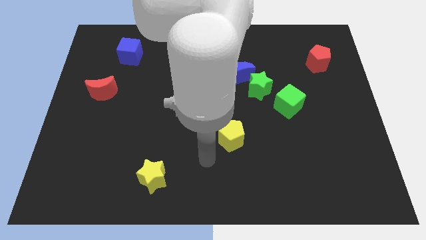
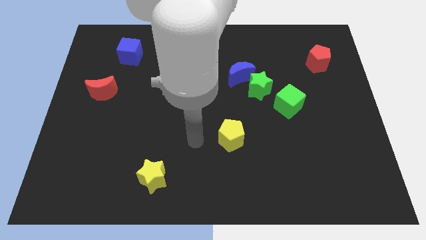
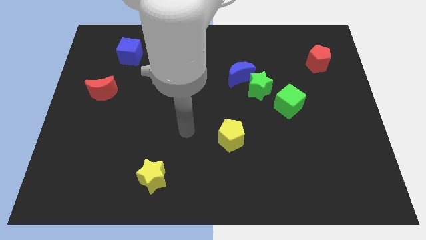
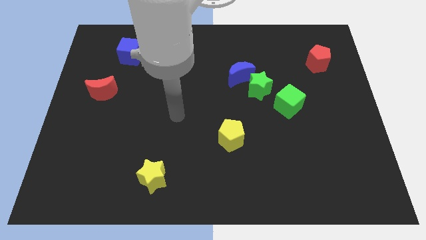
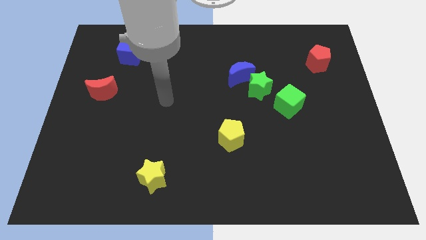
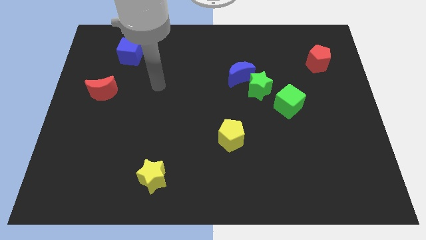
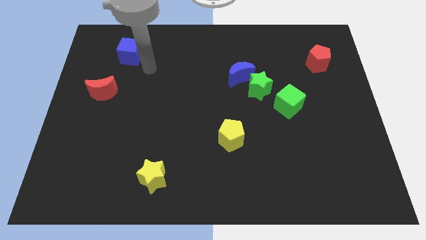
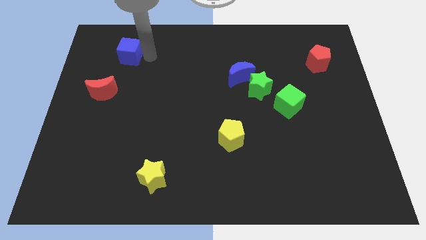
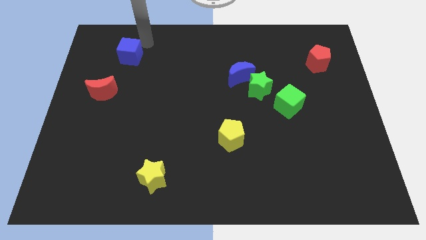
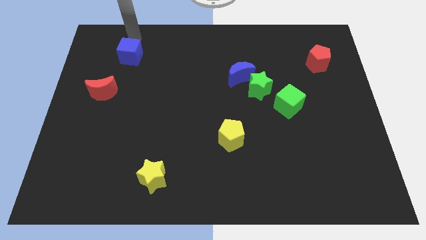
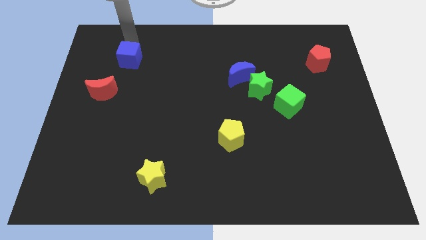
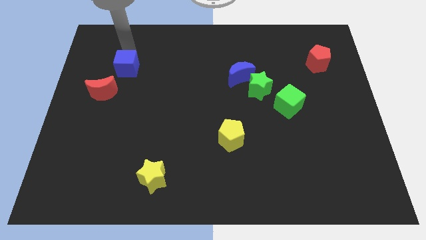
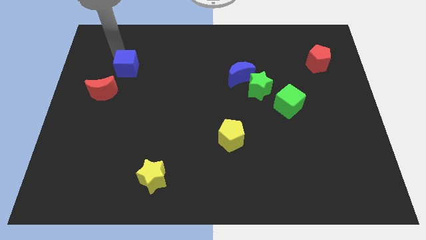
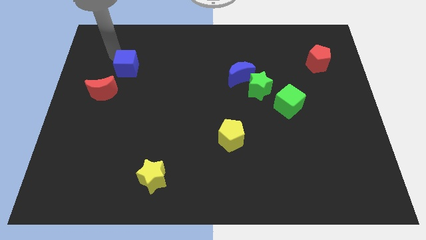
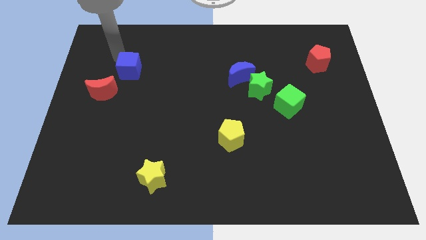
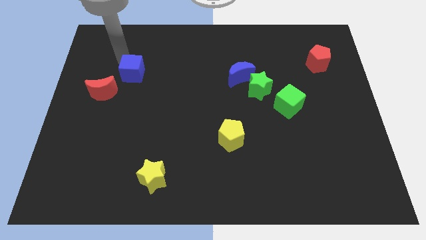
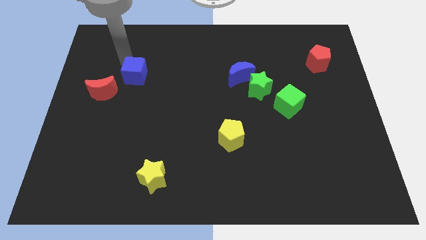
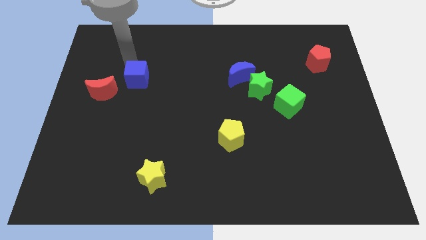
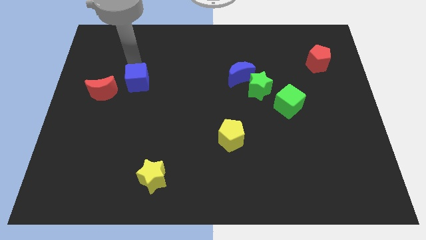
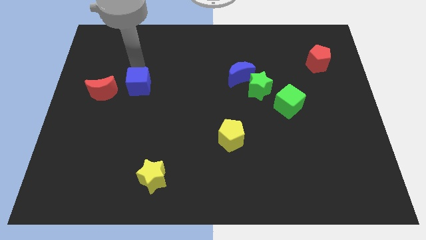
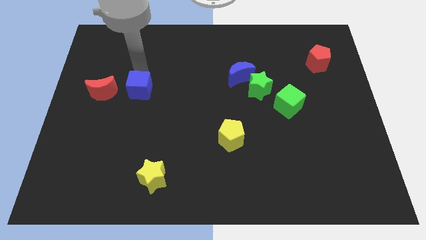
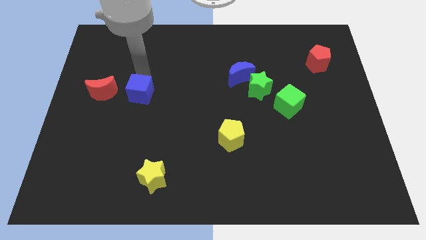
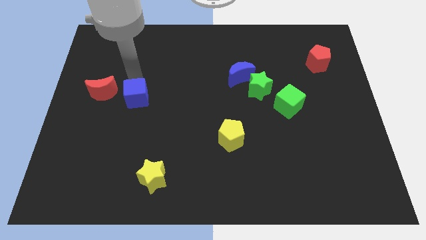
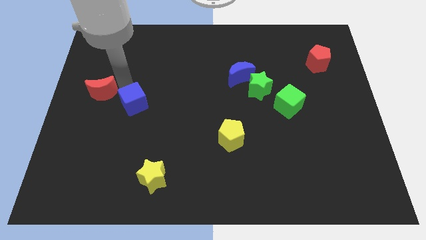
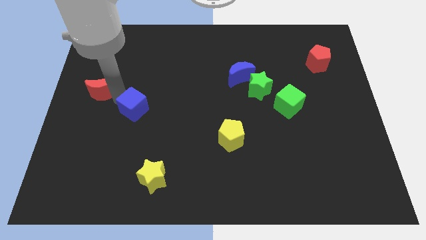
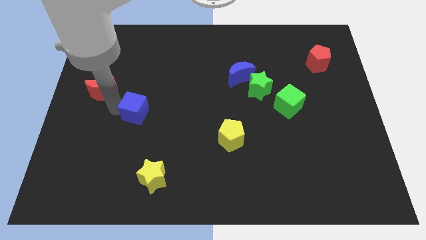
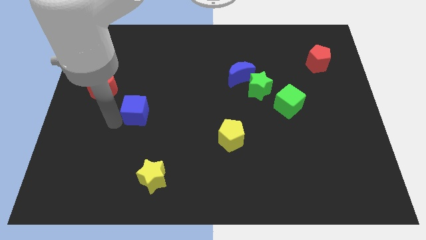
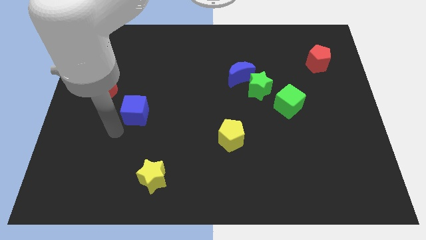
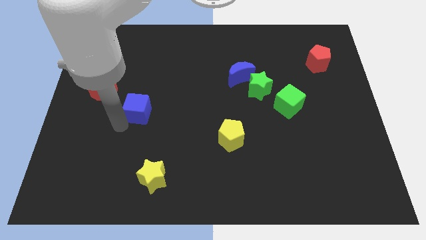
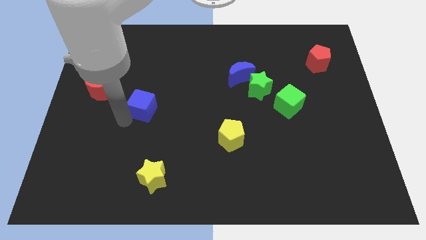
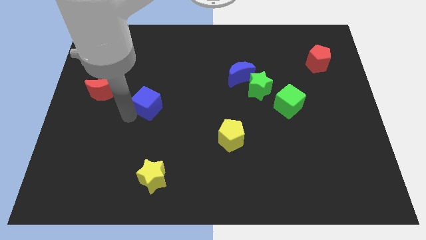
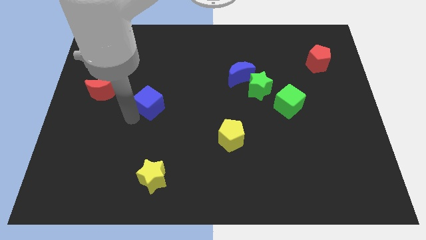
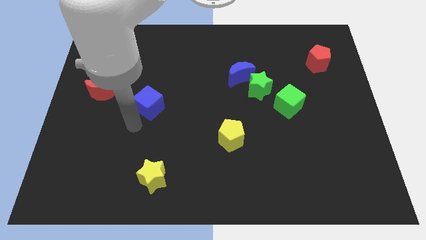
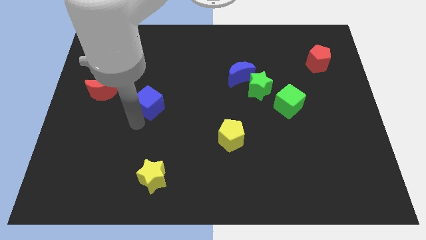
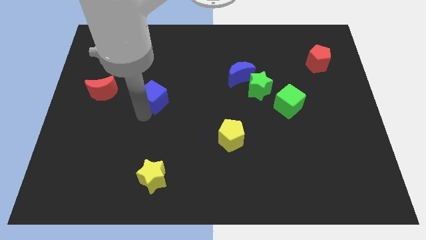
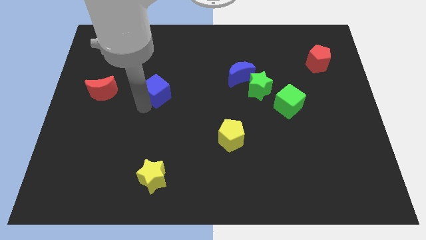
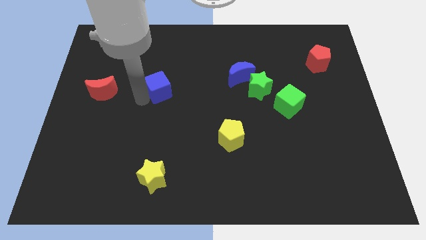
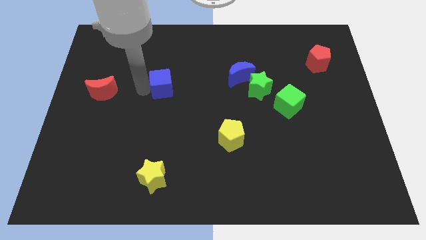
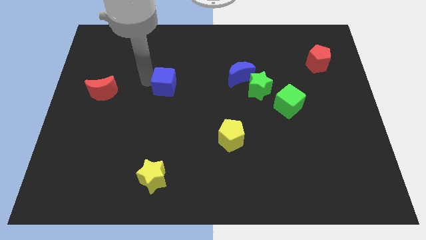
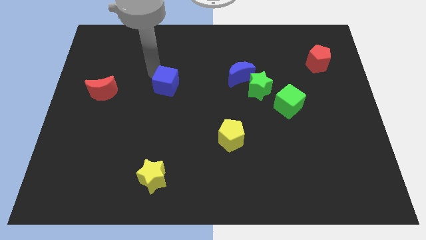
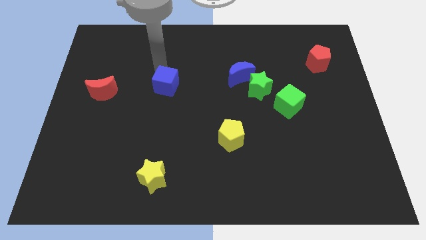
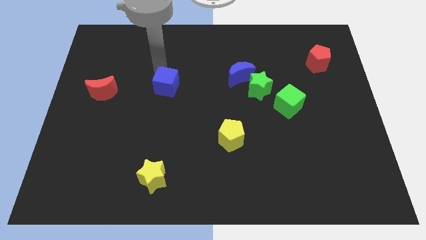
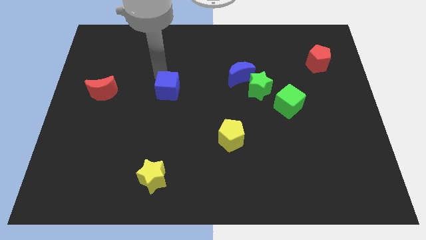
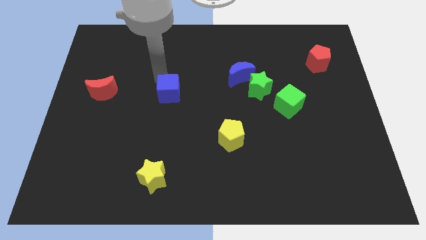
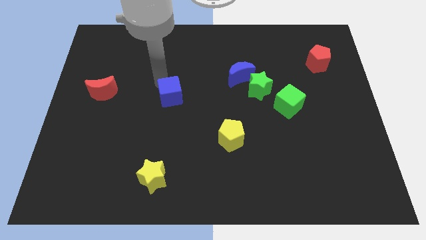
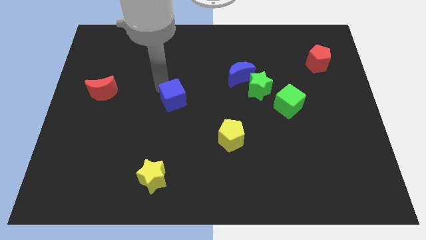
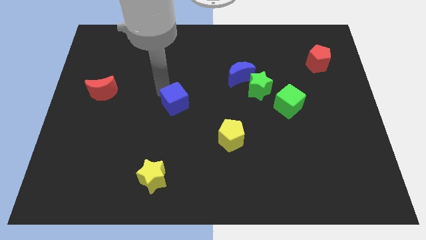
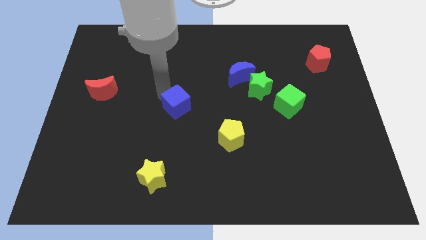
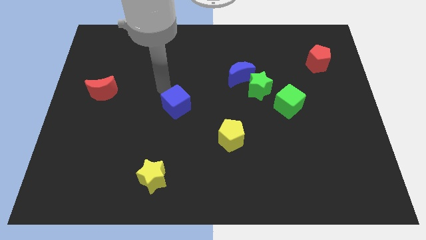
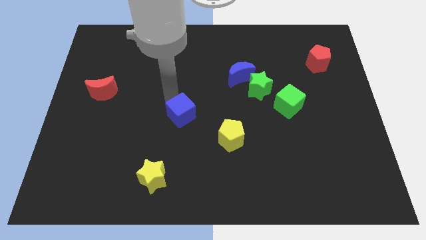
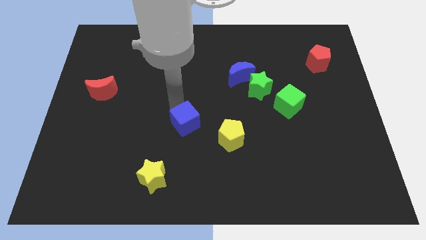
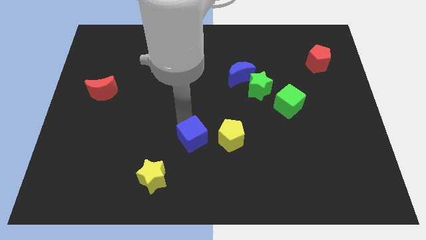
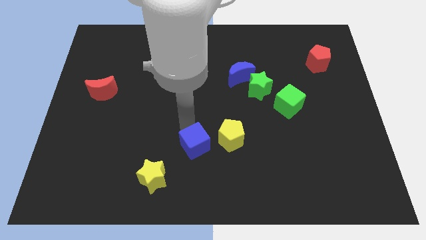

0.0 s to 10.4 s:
slide the blue cube to the bottom left side of the yellow pentagon

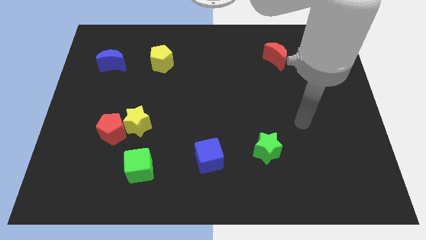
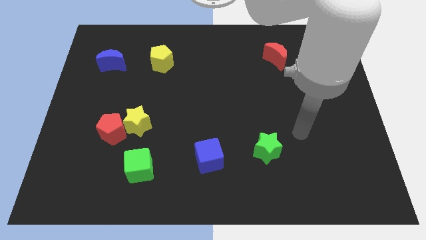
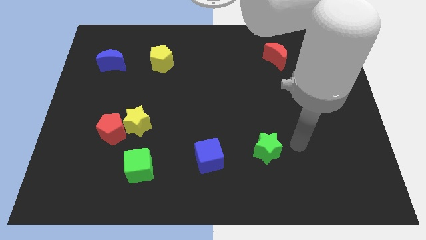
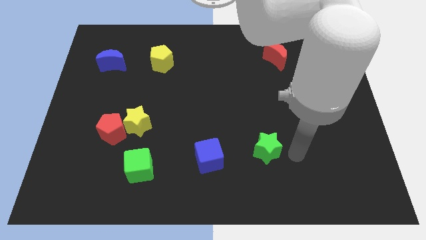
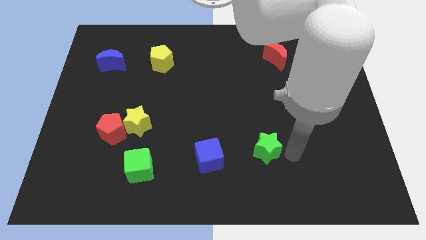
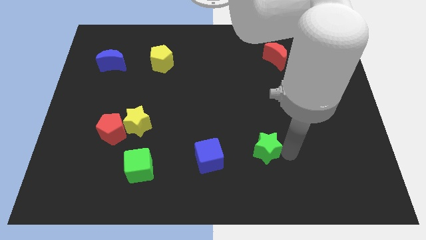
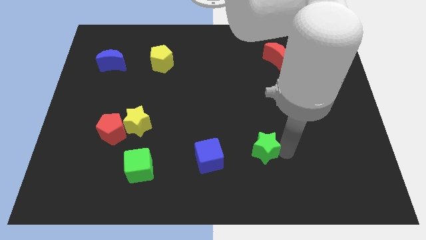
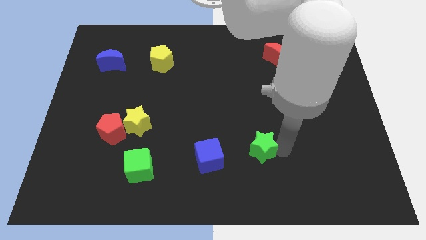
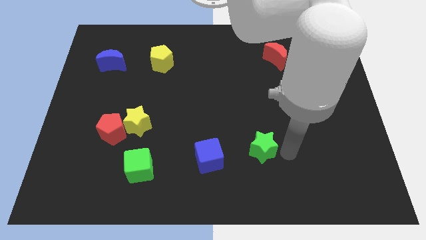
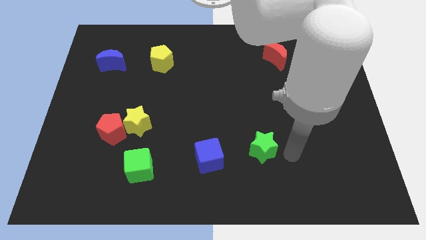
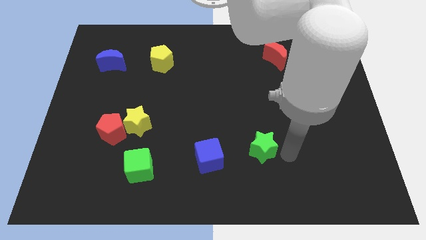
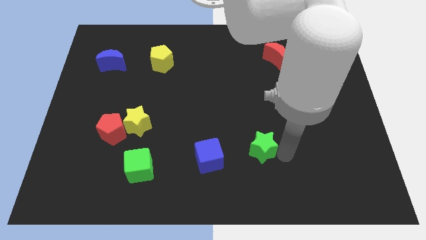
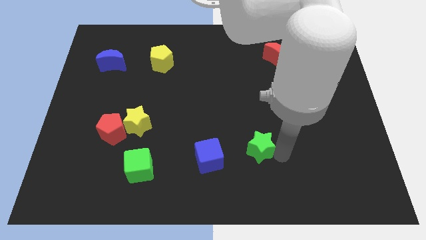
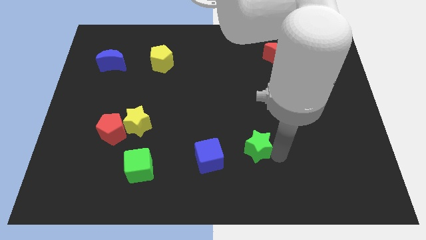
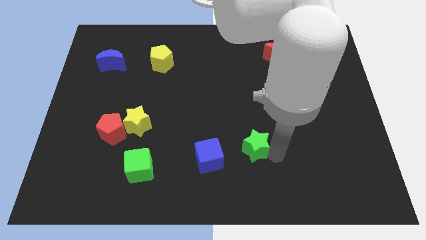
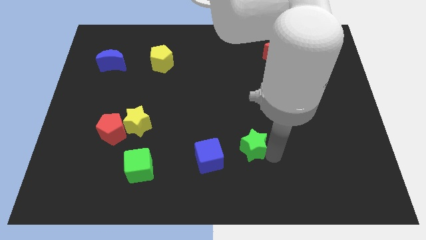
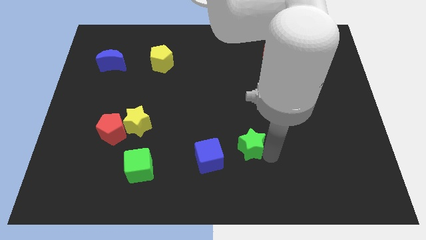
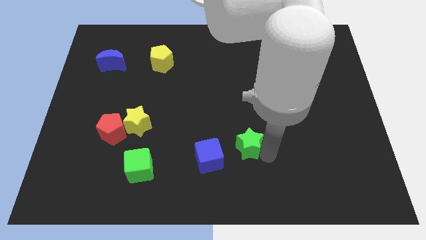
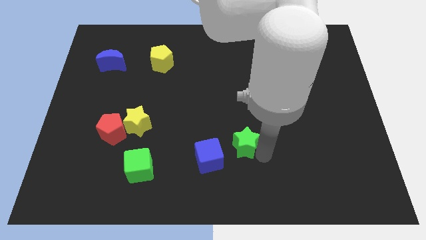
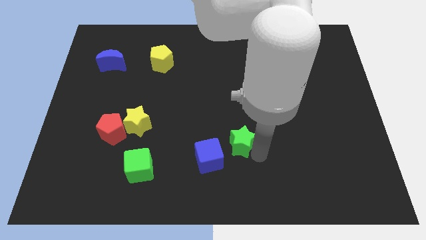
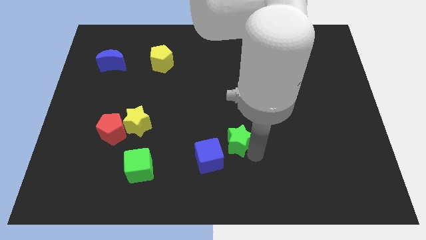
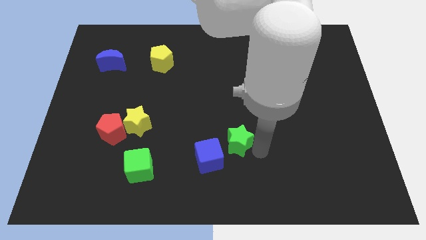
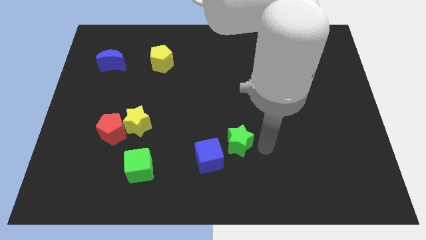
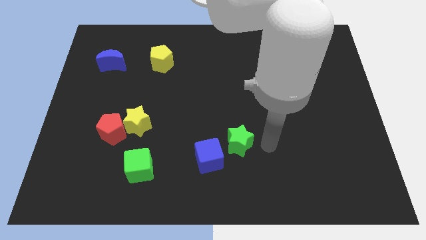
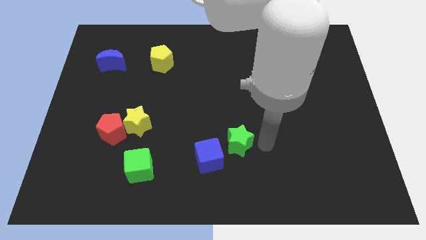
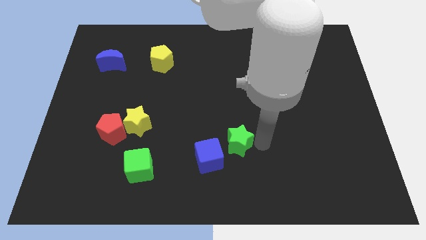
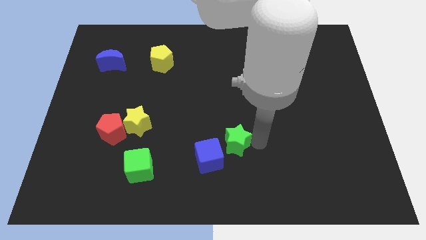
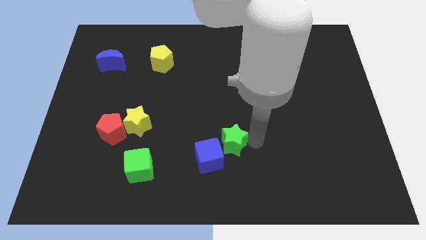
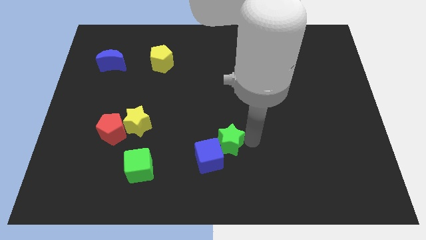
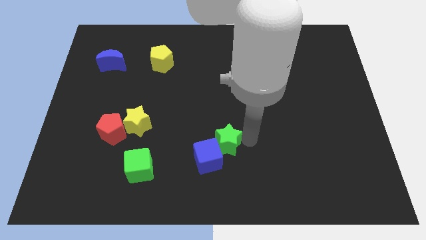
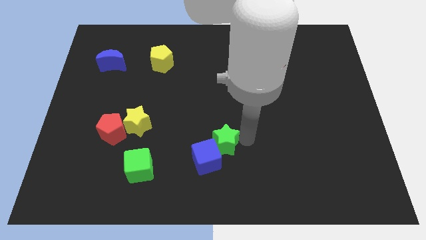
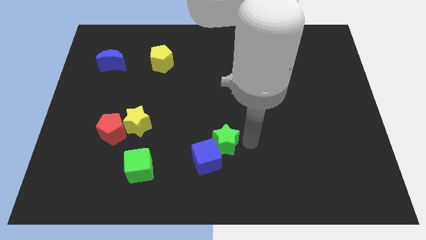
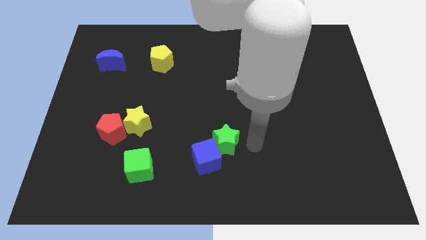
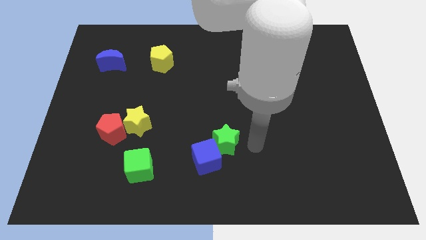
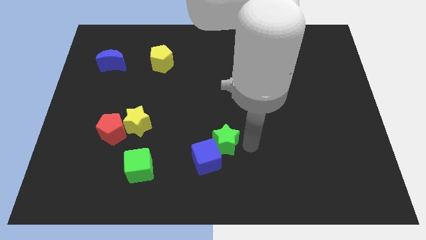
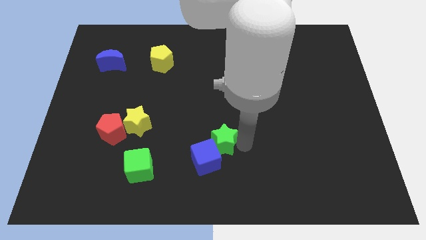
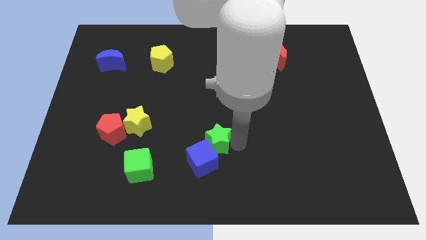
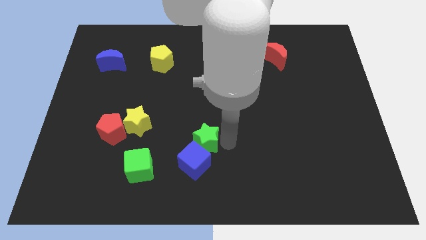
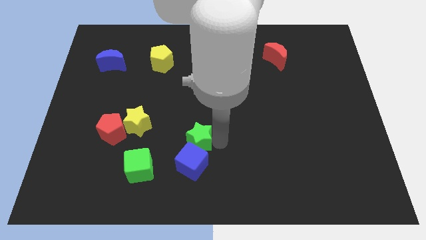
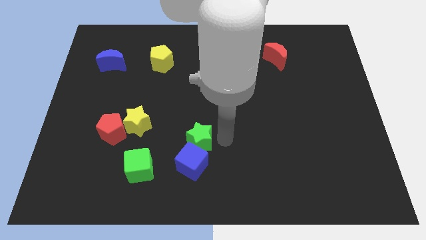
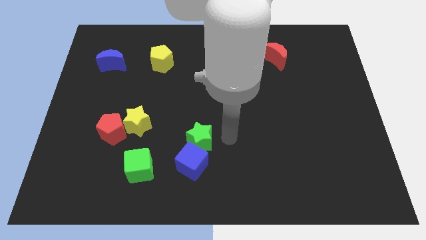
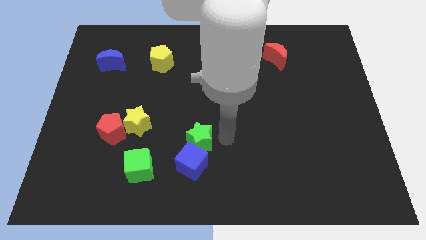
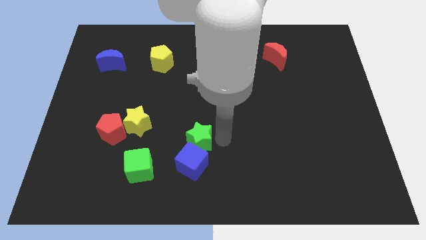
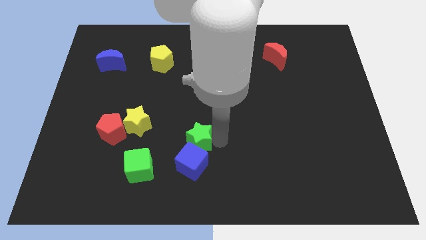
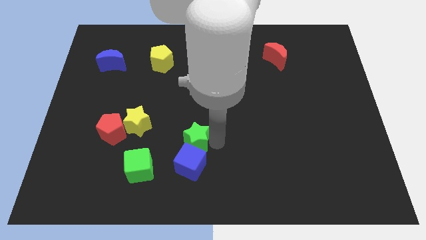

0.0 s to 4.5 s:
put the green star to the top left side of the blue cube
